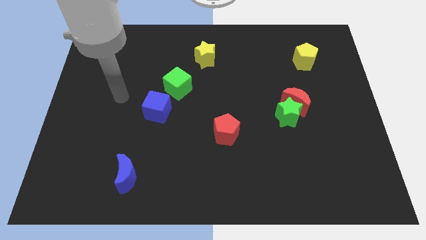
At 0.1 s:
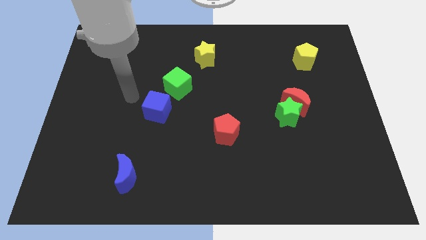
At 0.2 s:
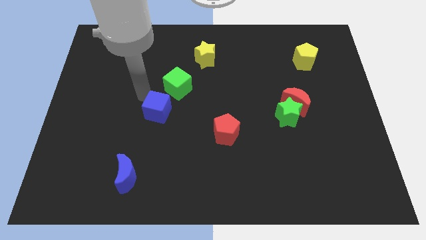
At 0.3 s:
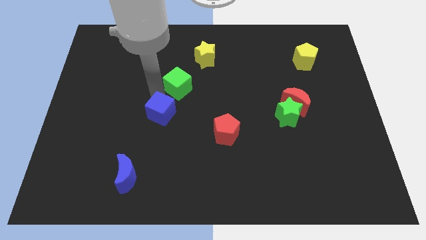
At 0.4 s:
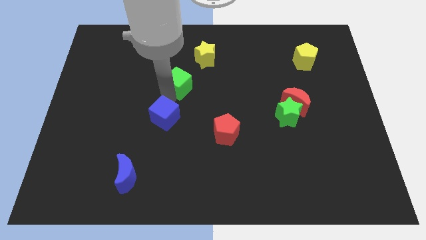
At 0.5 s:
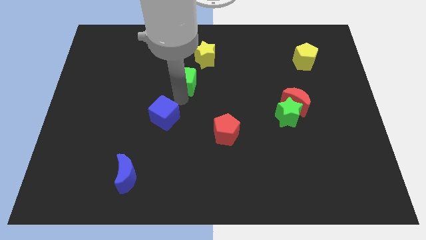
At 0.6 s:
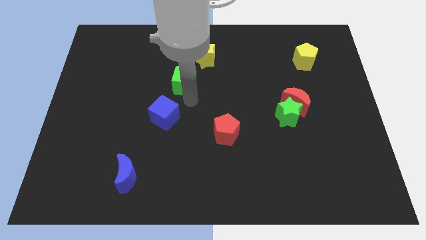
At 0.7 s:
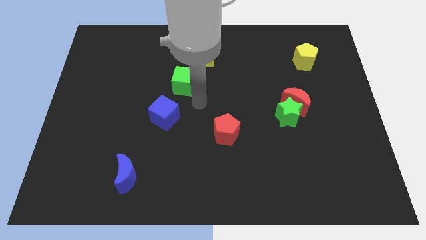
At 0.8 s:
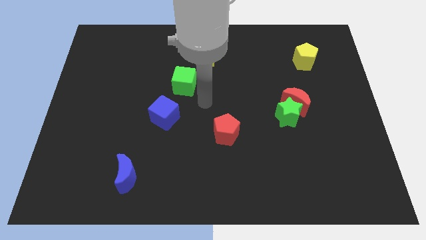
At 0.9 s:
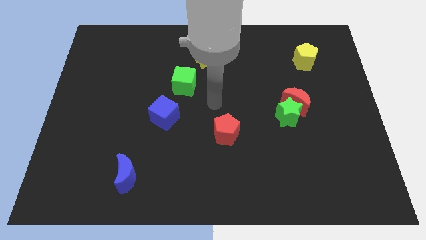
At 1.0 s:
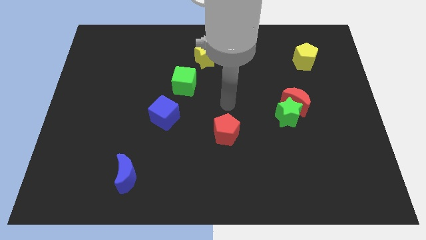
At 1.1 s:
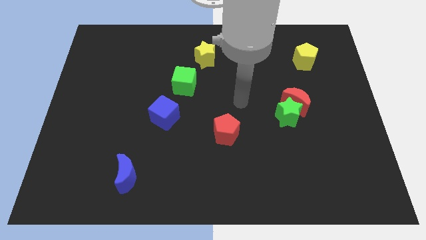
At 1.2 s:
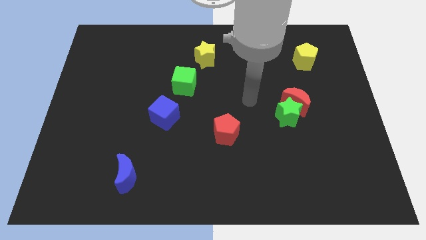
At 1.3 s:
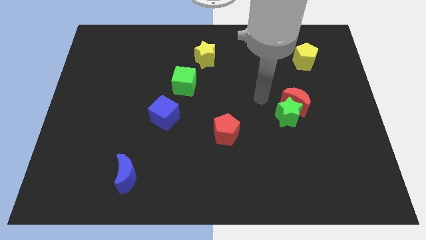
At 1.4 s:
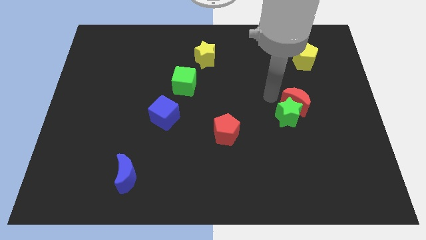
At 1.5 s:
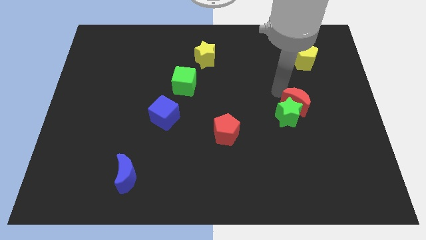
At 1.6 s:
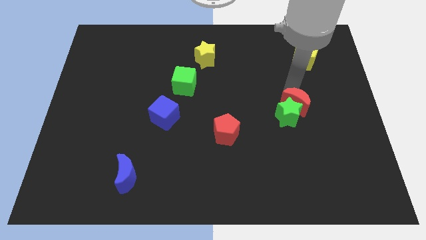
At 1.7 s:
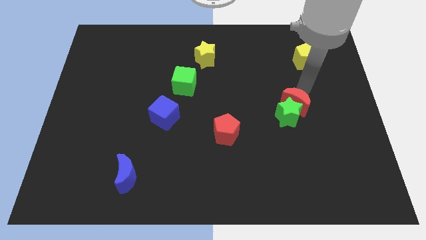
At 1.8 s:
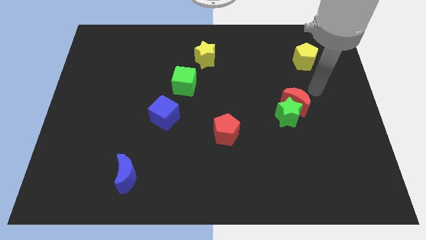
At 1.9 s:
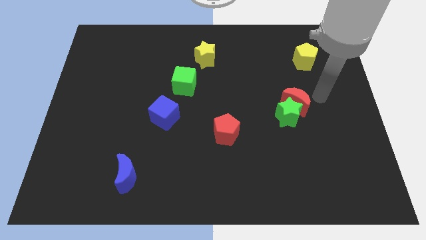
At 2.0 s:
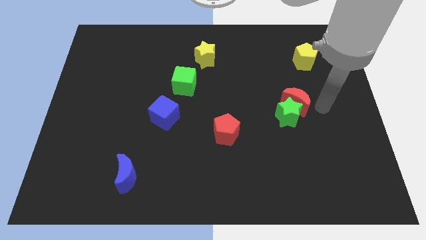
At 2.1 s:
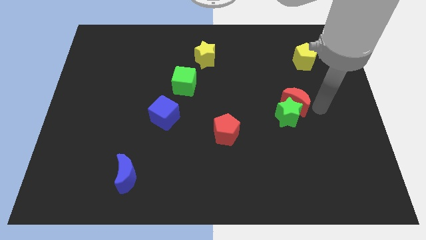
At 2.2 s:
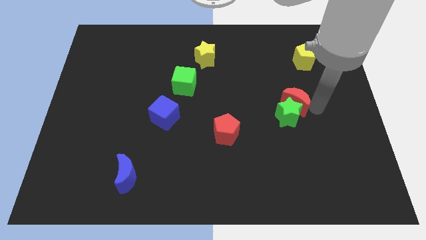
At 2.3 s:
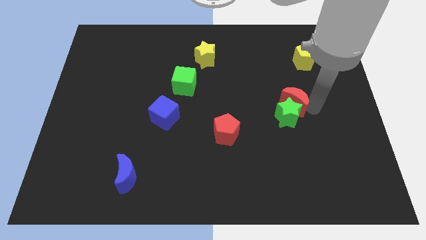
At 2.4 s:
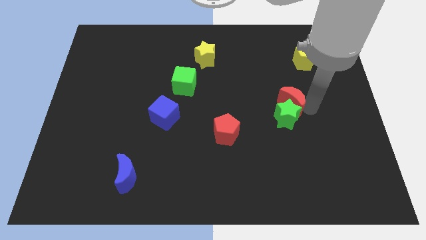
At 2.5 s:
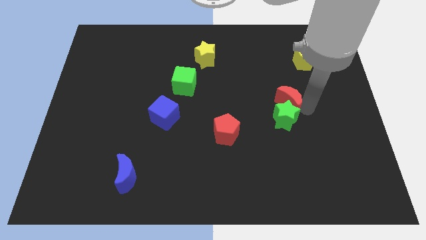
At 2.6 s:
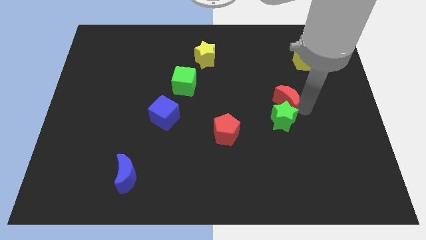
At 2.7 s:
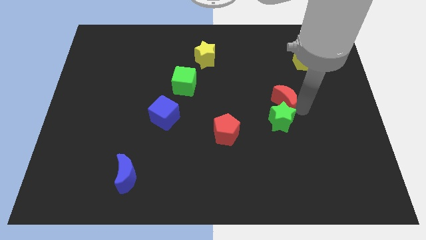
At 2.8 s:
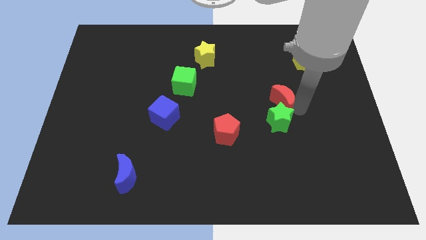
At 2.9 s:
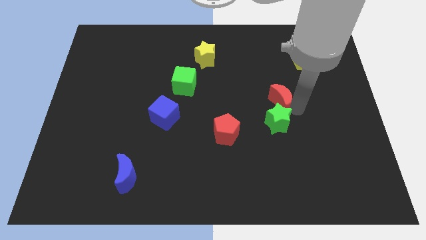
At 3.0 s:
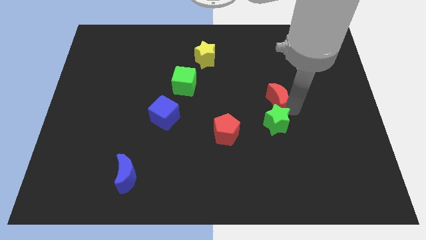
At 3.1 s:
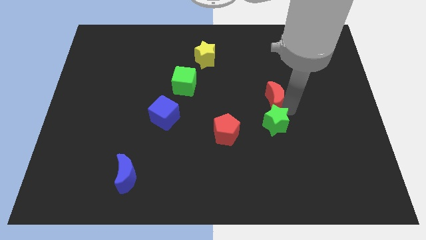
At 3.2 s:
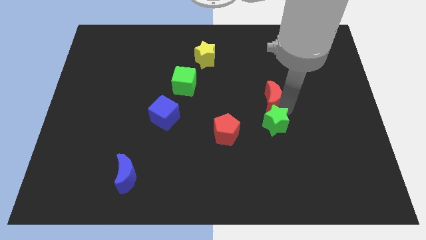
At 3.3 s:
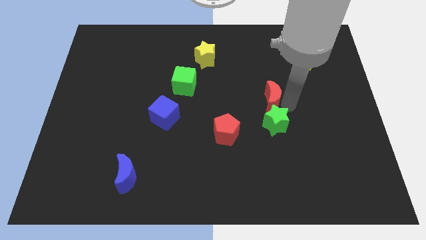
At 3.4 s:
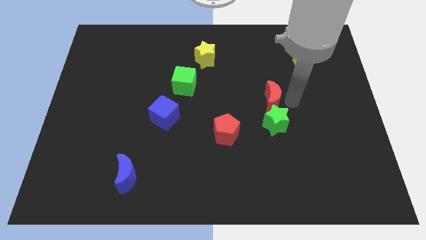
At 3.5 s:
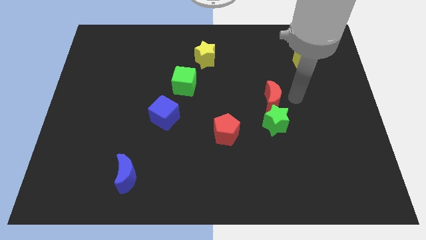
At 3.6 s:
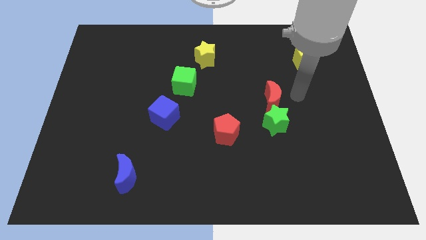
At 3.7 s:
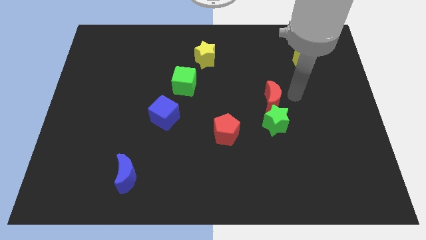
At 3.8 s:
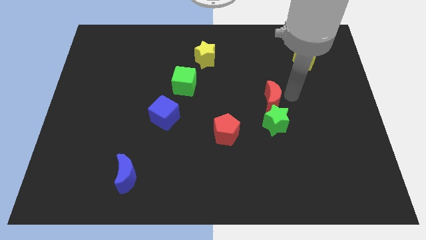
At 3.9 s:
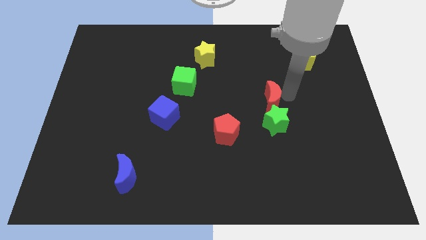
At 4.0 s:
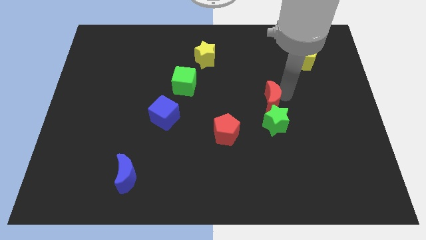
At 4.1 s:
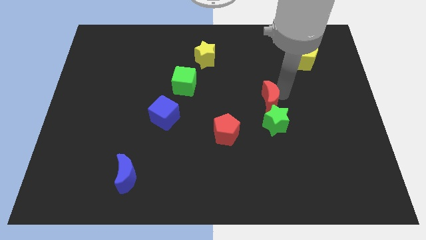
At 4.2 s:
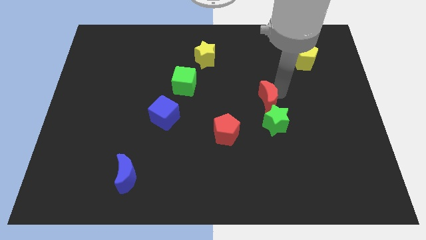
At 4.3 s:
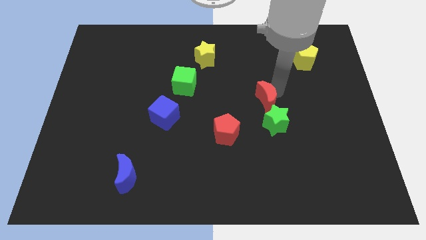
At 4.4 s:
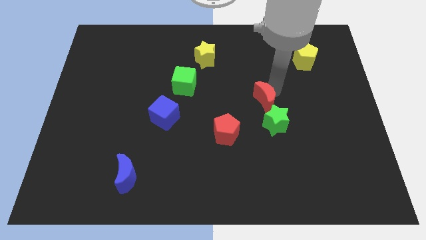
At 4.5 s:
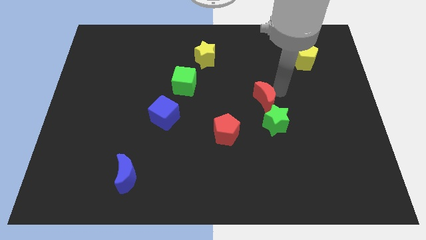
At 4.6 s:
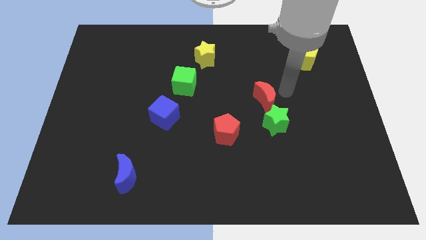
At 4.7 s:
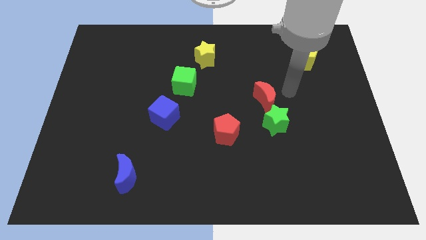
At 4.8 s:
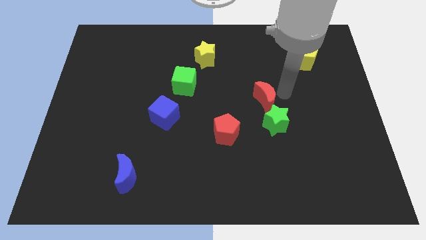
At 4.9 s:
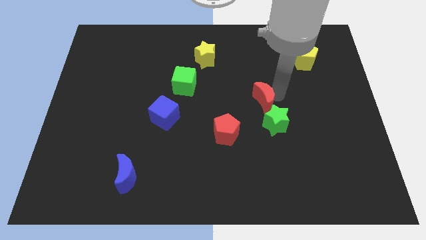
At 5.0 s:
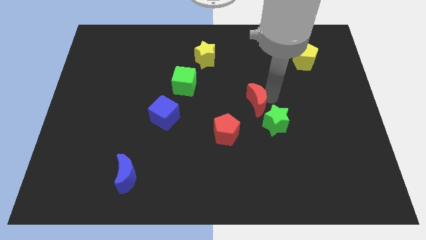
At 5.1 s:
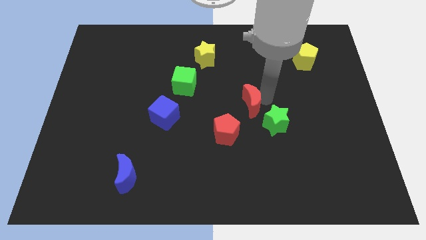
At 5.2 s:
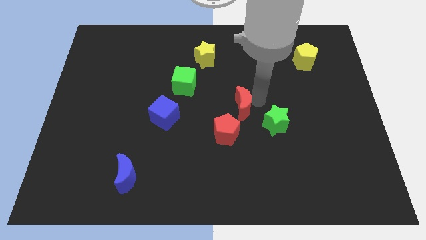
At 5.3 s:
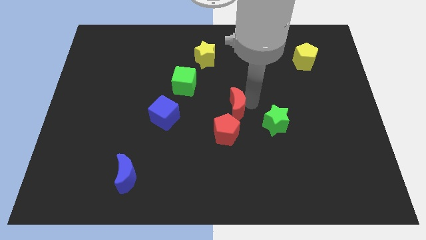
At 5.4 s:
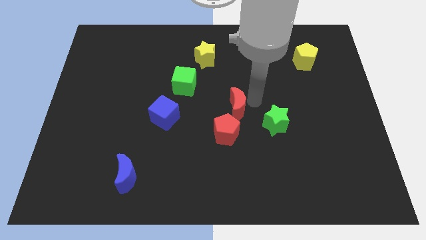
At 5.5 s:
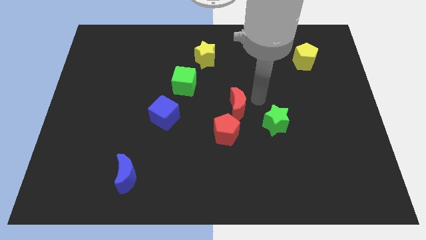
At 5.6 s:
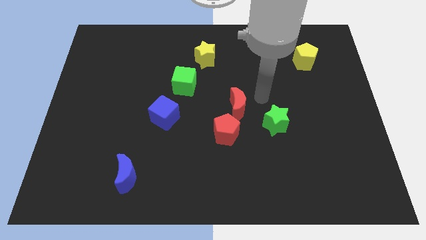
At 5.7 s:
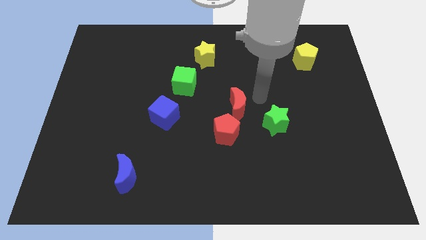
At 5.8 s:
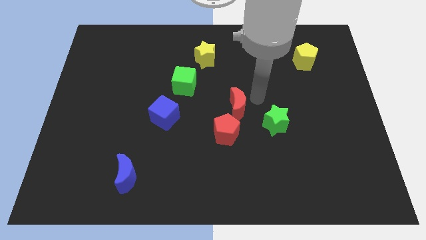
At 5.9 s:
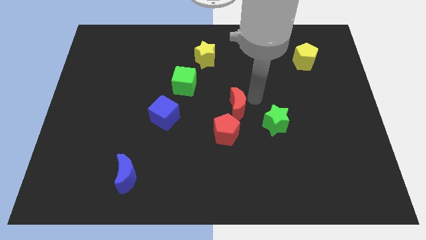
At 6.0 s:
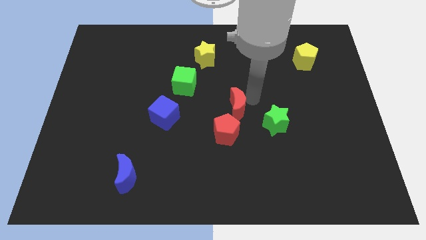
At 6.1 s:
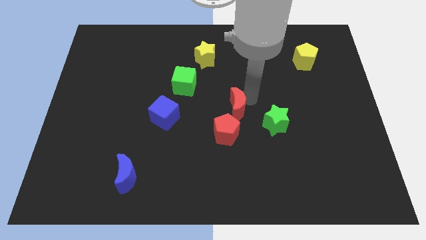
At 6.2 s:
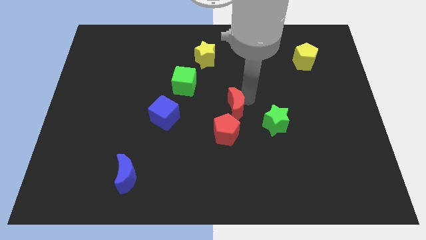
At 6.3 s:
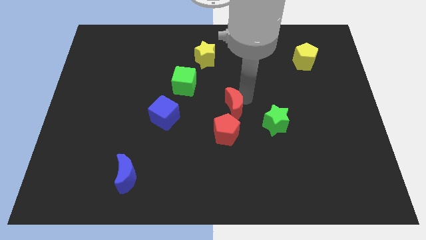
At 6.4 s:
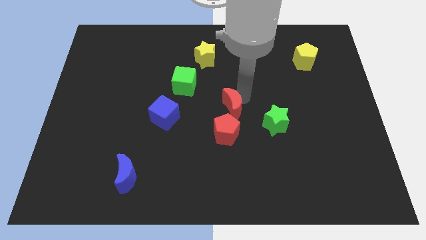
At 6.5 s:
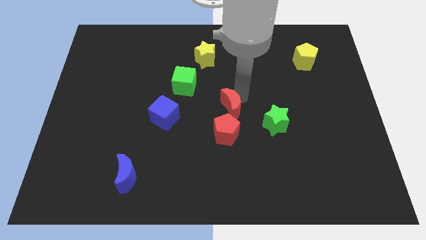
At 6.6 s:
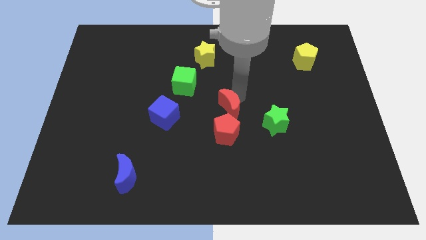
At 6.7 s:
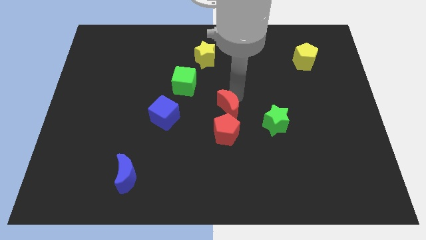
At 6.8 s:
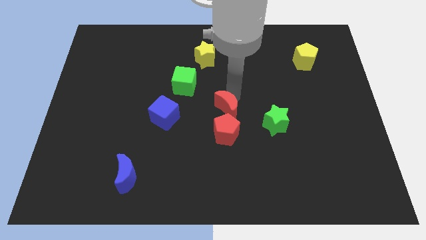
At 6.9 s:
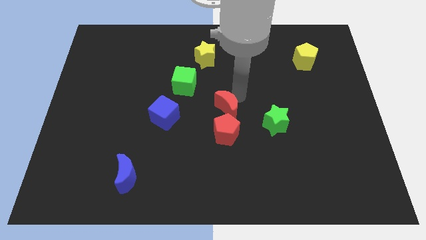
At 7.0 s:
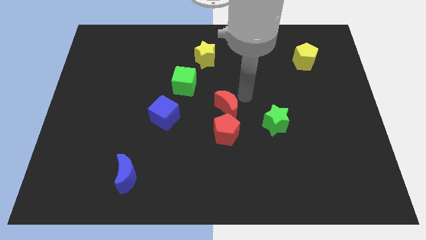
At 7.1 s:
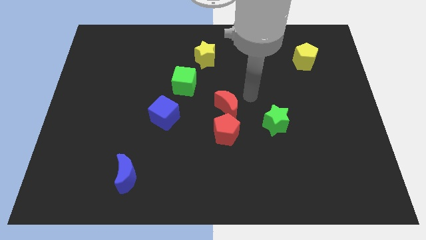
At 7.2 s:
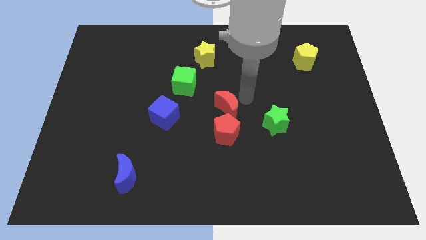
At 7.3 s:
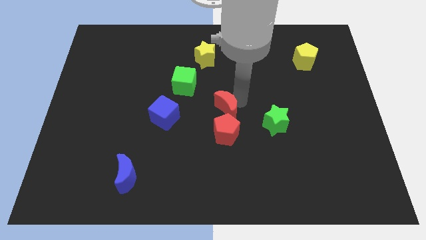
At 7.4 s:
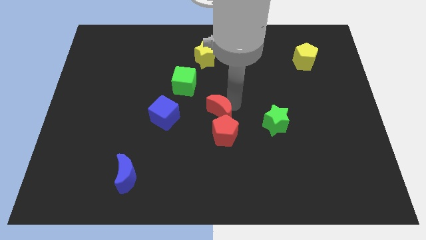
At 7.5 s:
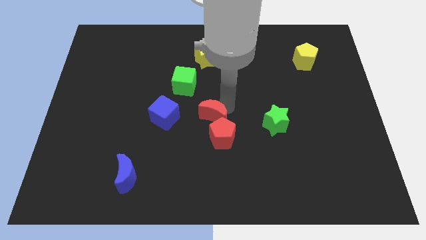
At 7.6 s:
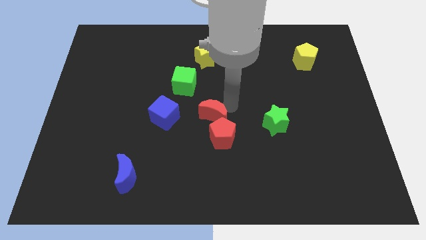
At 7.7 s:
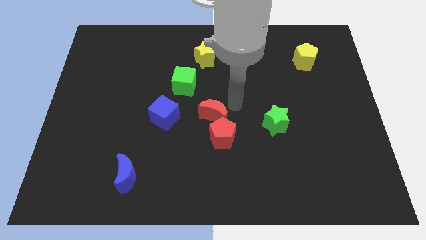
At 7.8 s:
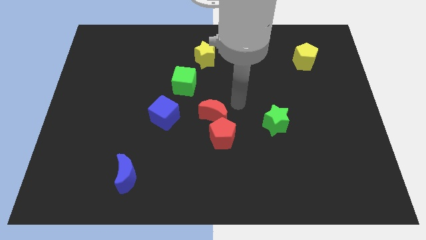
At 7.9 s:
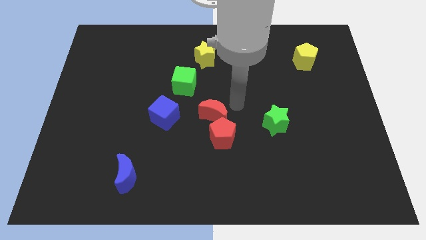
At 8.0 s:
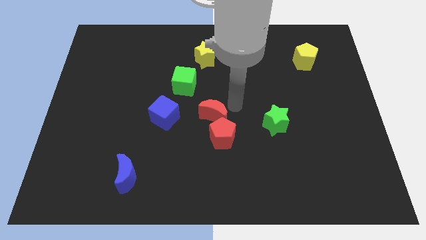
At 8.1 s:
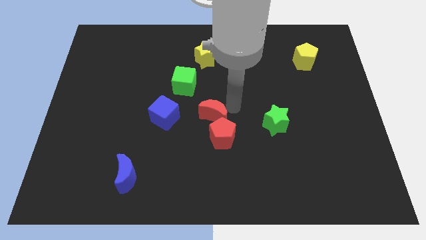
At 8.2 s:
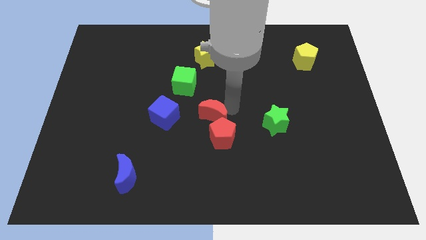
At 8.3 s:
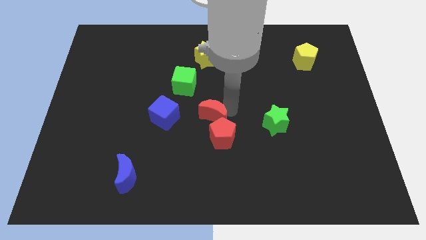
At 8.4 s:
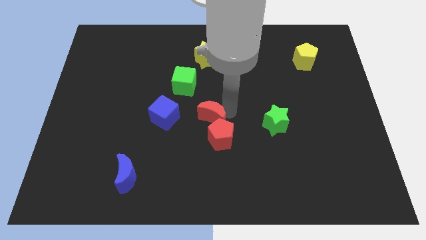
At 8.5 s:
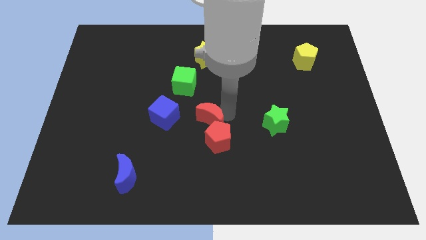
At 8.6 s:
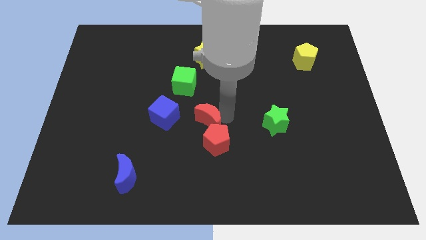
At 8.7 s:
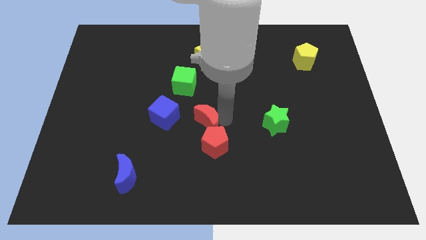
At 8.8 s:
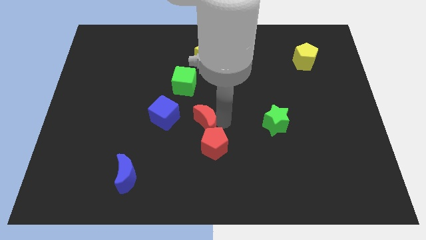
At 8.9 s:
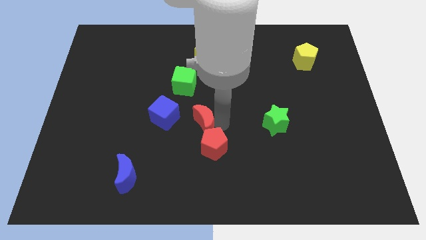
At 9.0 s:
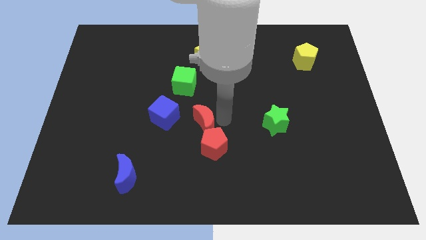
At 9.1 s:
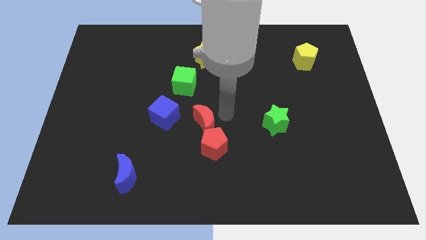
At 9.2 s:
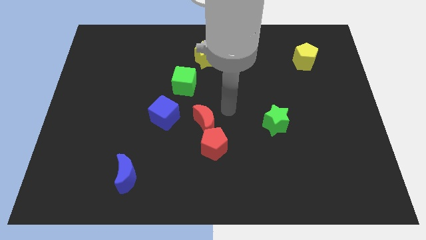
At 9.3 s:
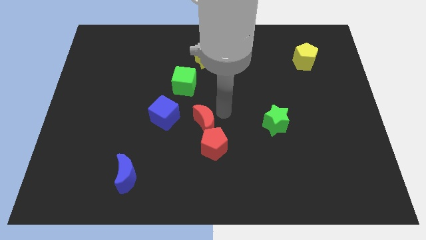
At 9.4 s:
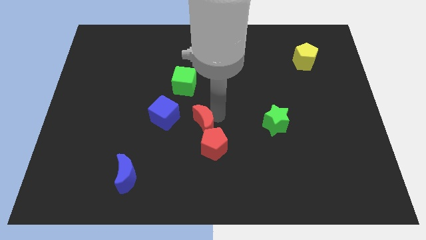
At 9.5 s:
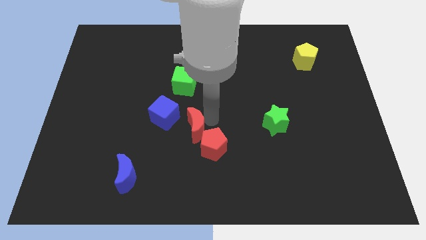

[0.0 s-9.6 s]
slide the red moon diagonally down and to the right of the blue cube
